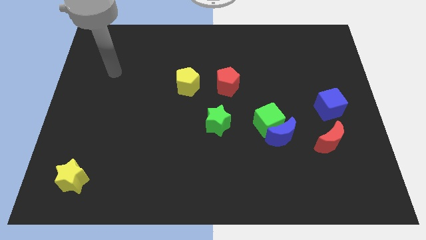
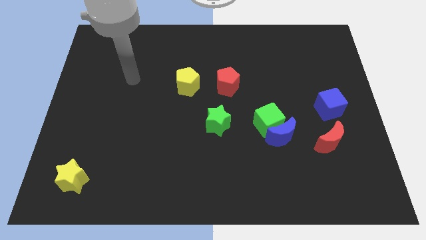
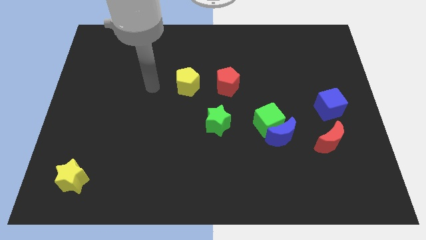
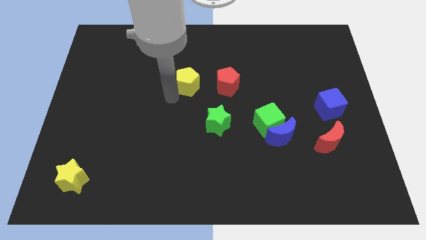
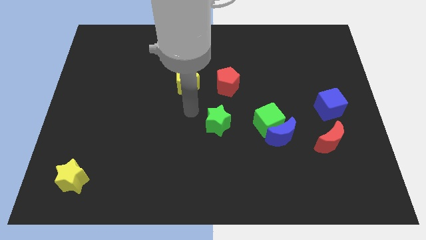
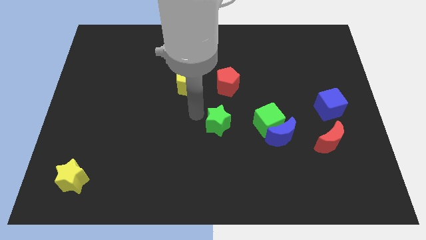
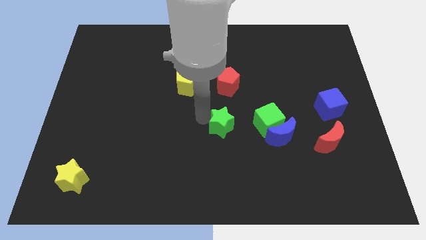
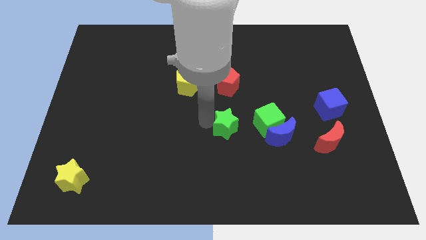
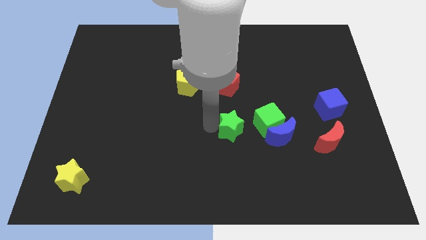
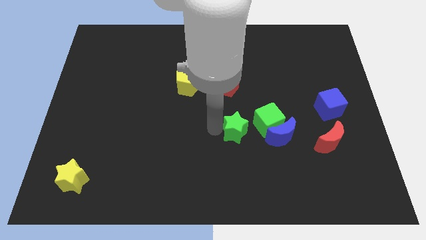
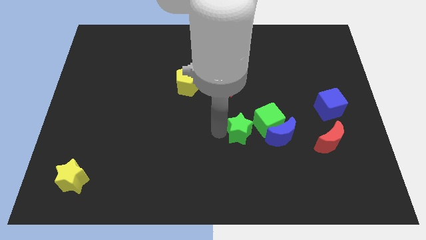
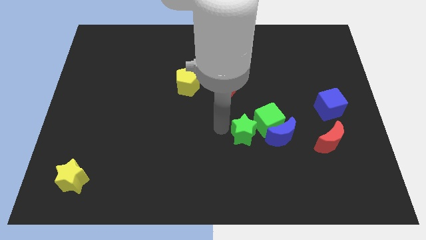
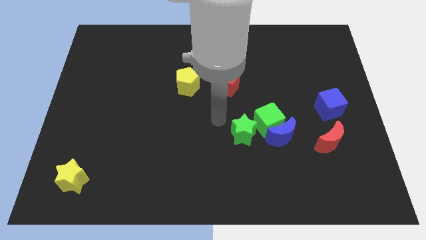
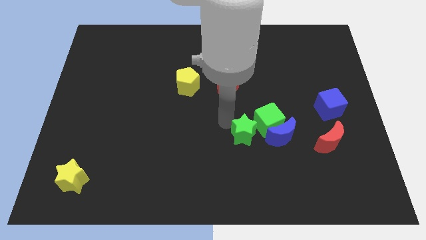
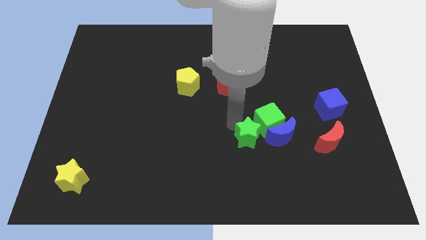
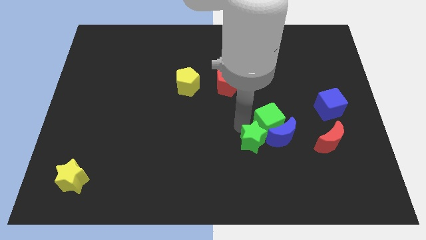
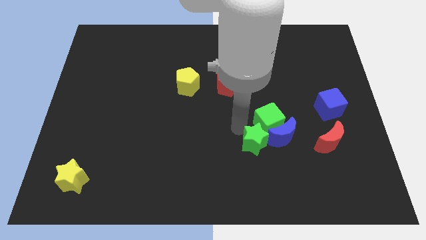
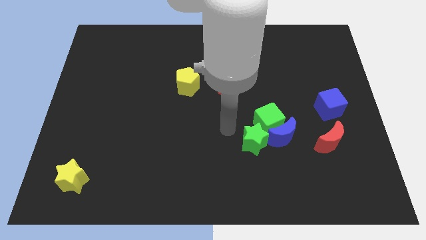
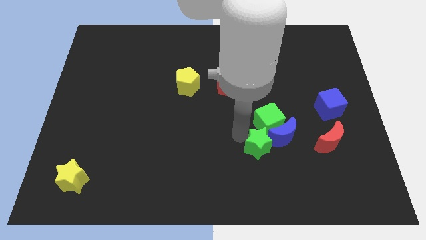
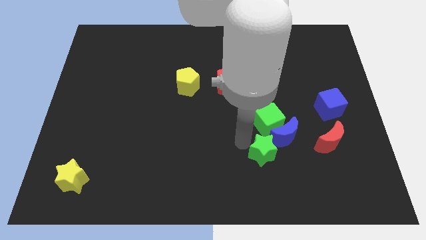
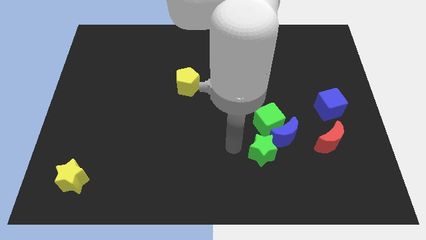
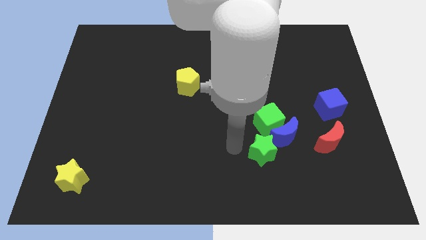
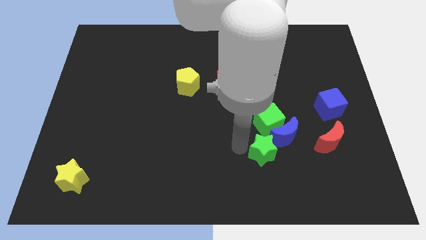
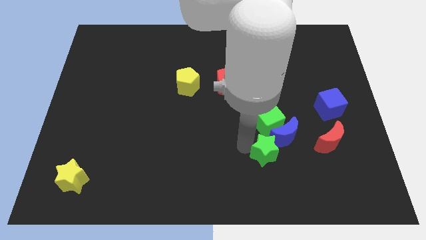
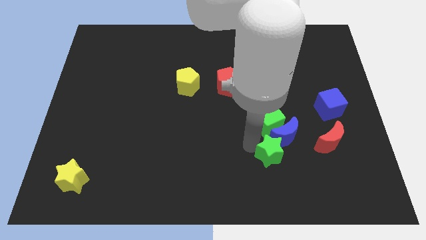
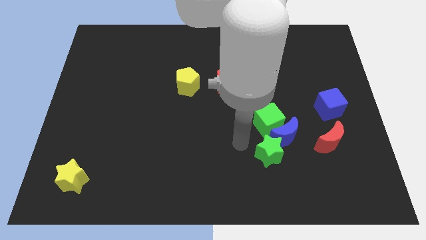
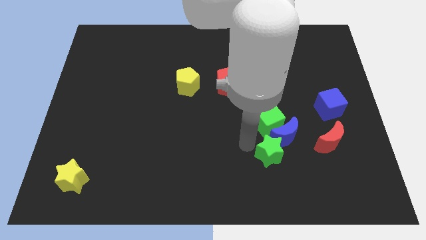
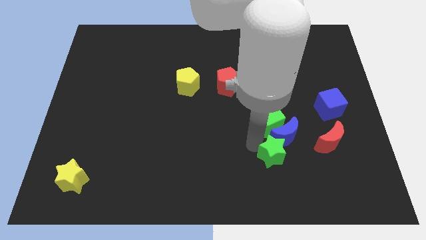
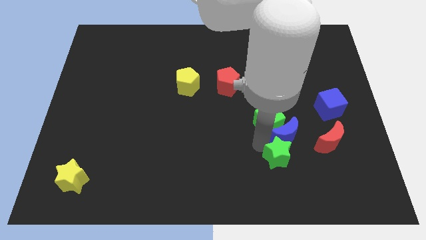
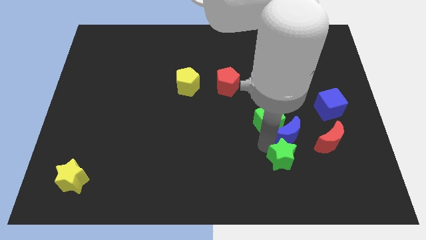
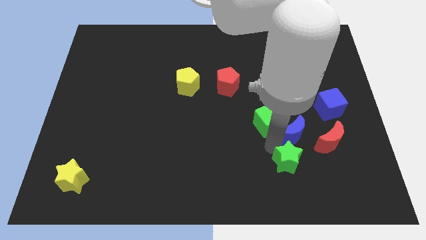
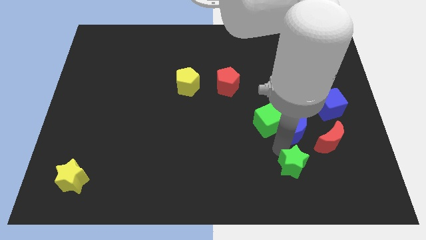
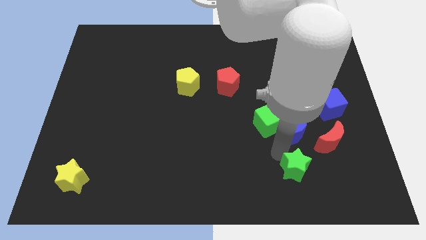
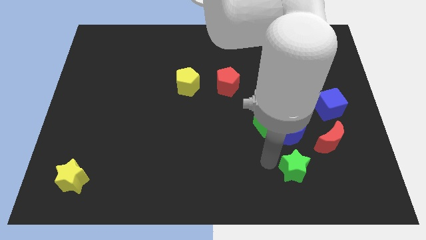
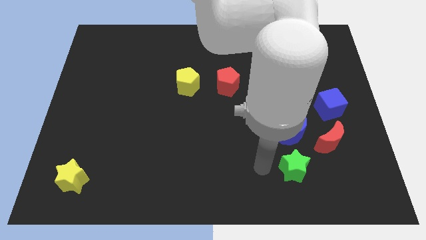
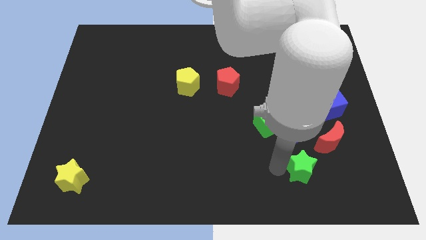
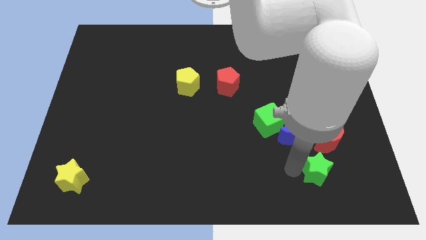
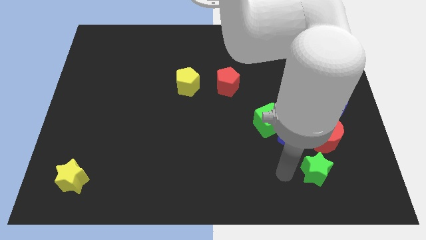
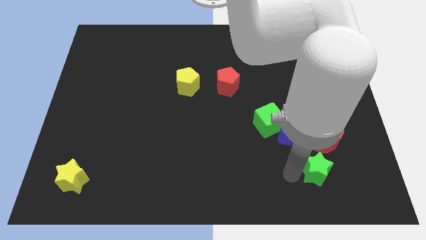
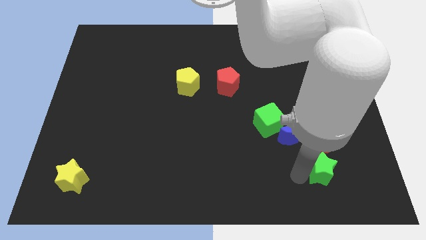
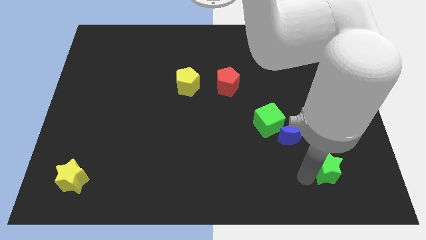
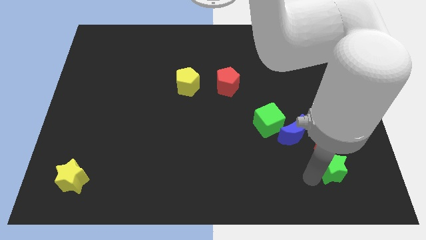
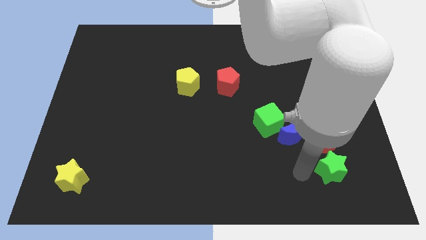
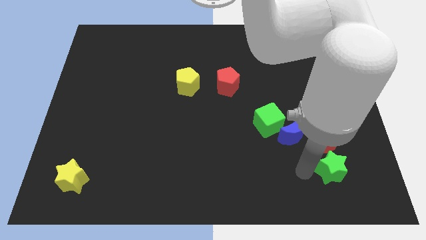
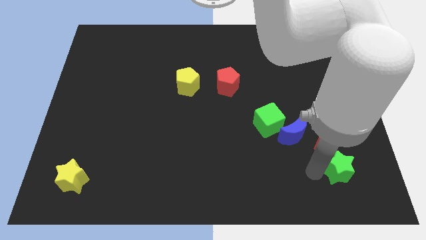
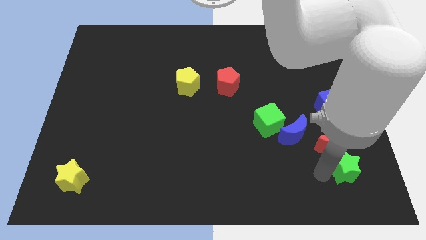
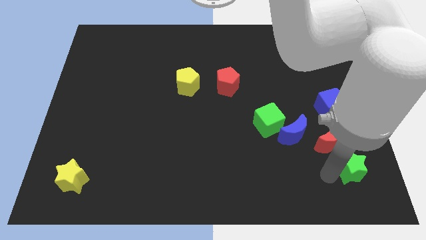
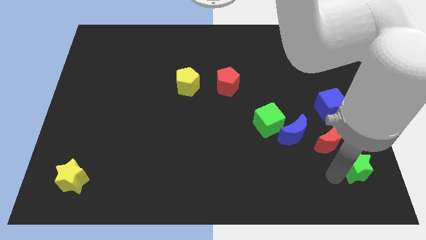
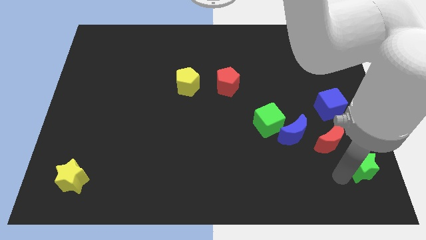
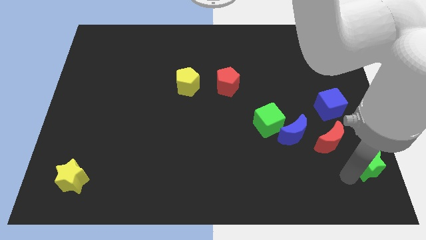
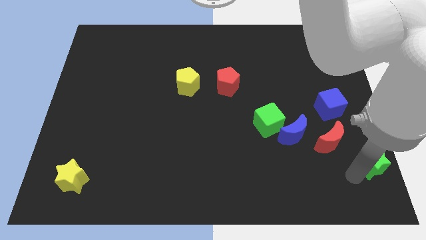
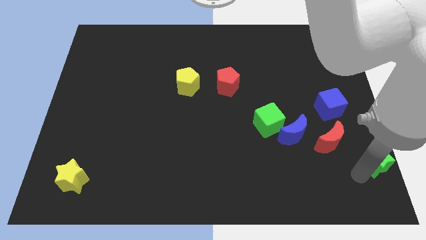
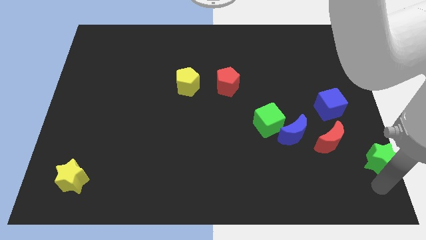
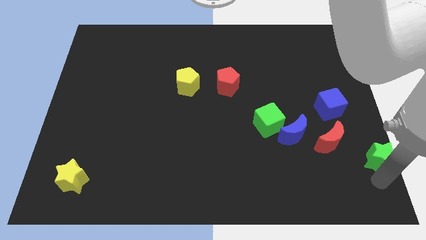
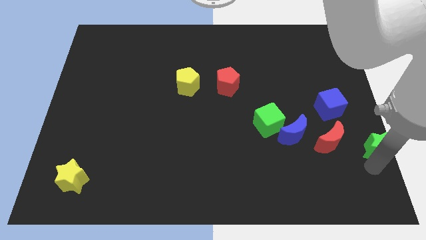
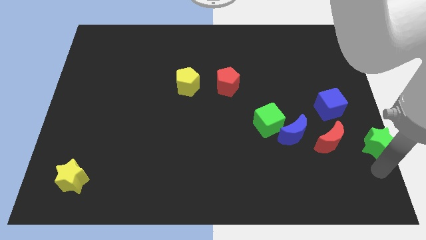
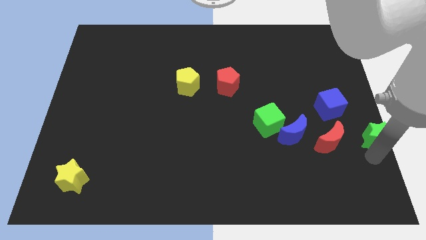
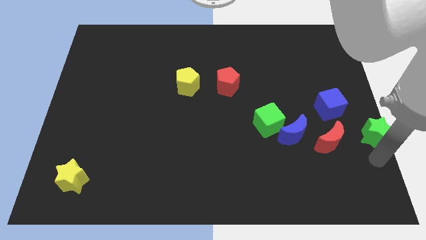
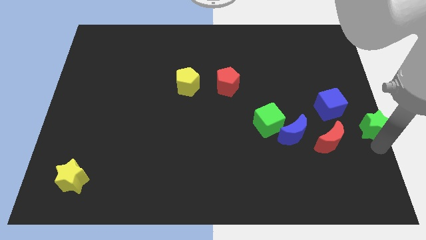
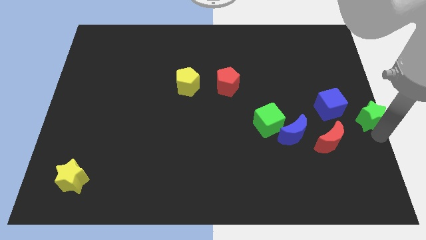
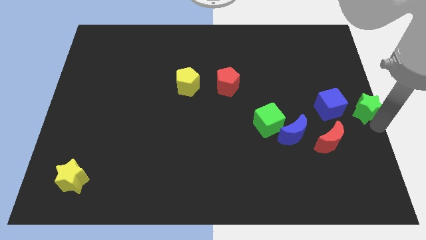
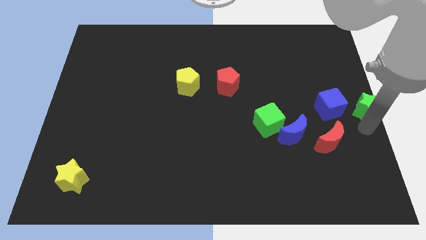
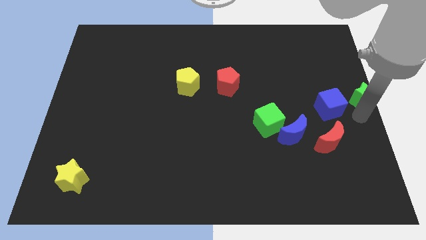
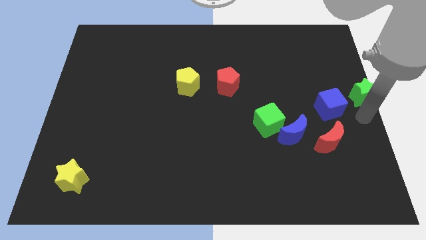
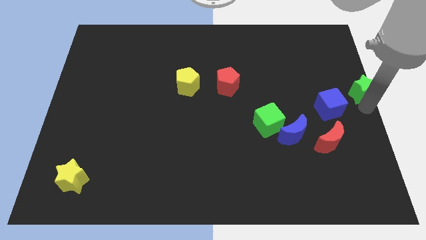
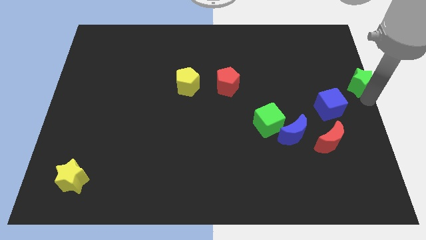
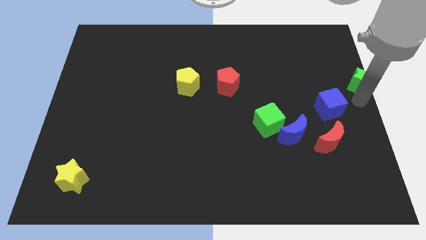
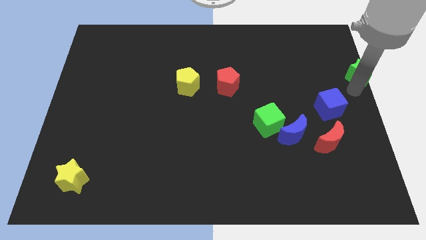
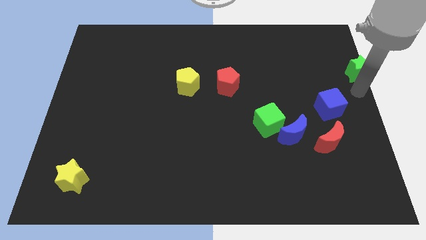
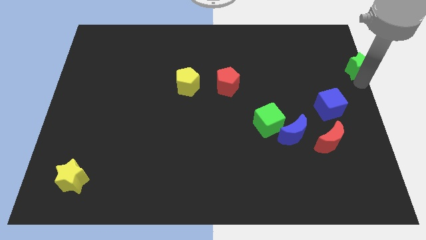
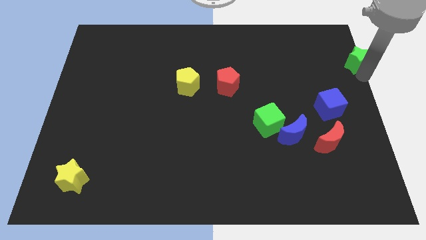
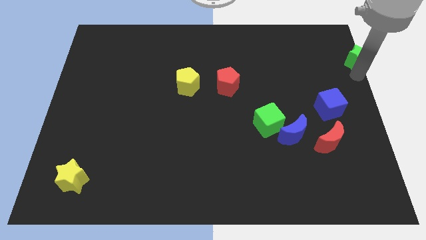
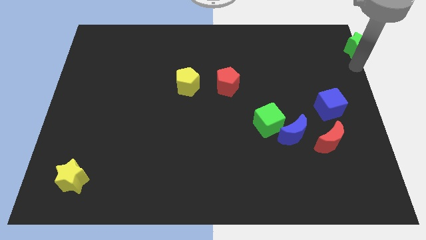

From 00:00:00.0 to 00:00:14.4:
slide the green star to the top right
